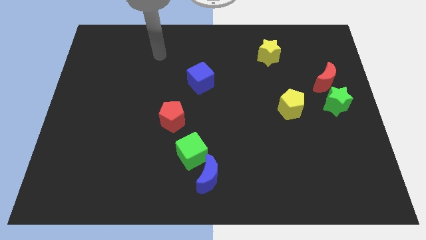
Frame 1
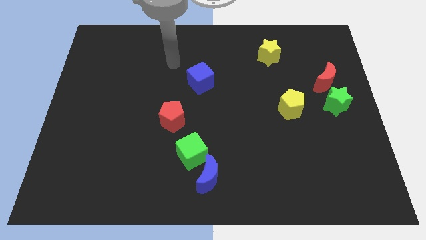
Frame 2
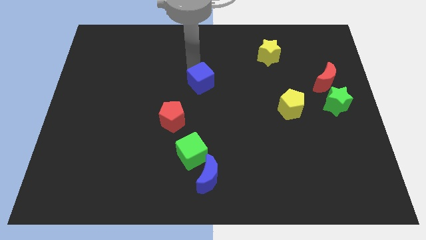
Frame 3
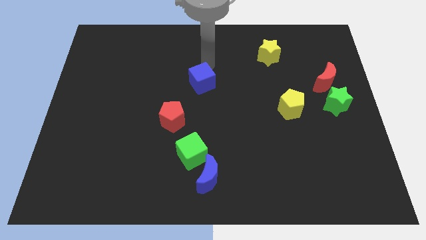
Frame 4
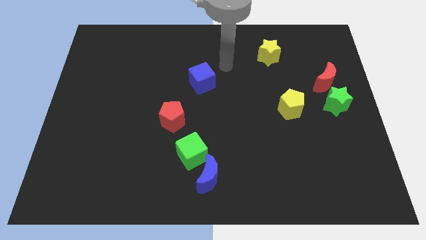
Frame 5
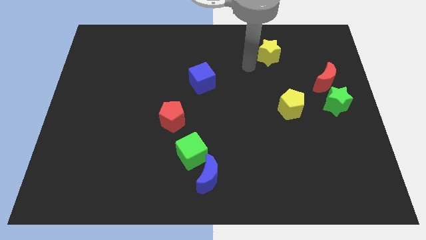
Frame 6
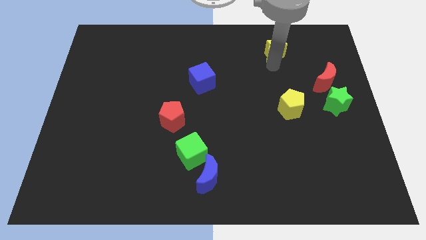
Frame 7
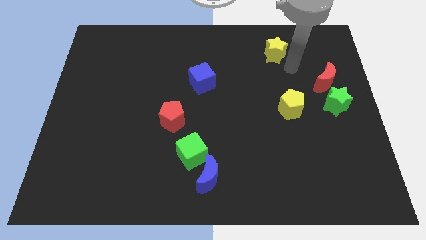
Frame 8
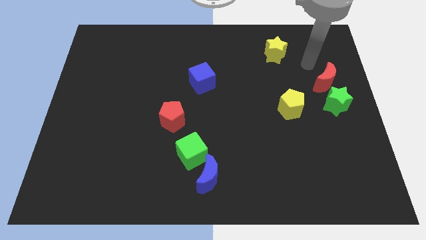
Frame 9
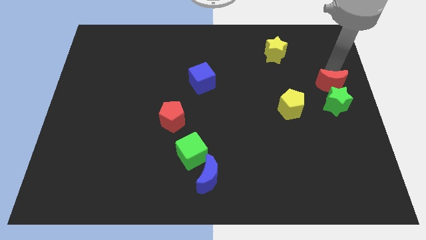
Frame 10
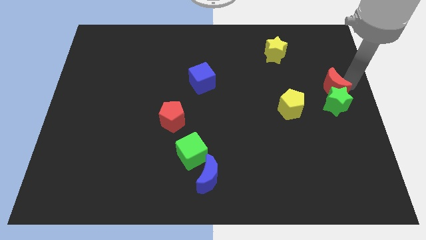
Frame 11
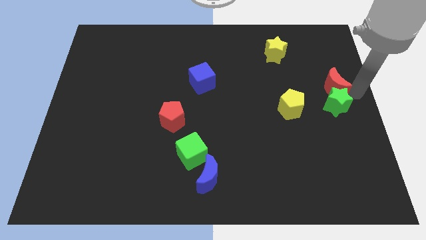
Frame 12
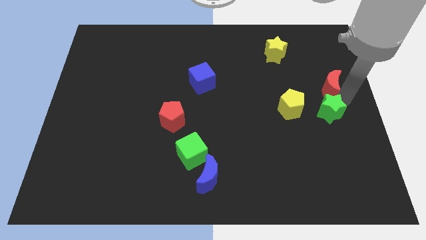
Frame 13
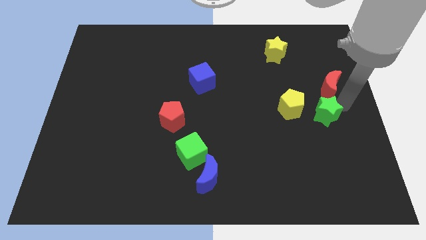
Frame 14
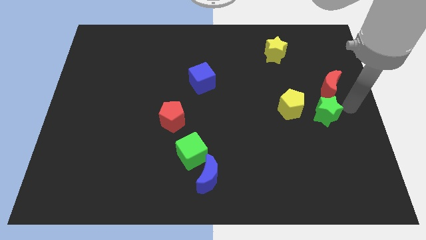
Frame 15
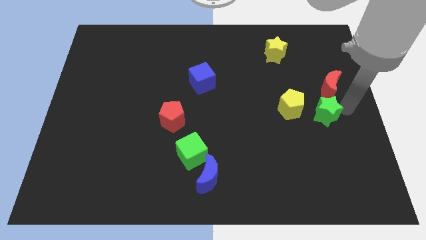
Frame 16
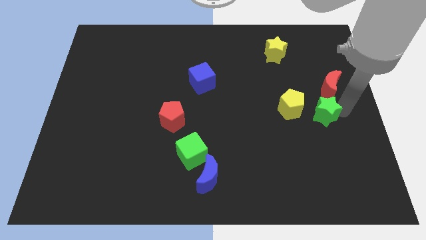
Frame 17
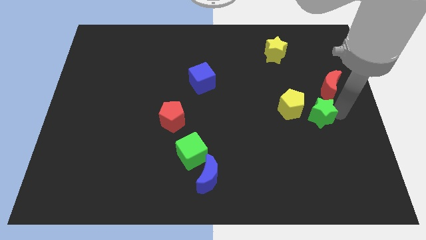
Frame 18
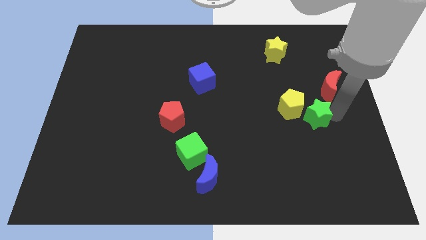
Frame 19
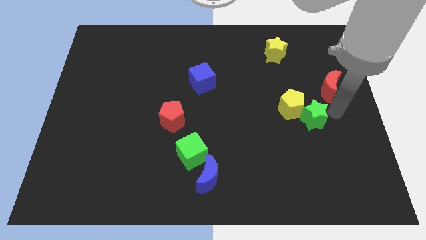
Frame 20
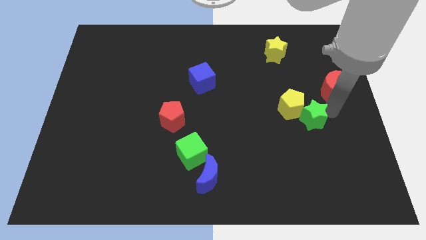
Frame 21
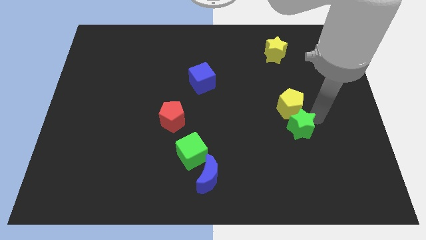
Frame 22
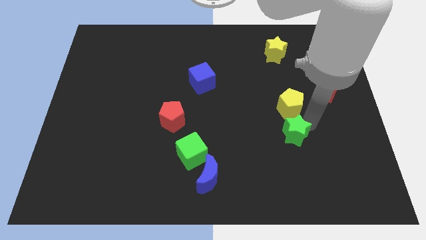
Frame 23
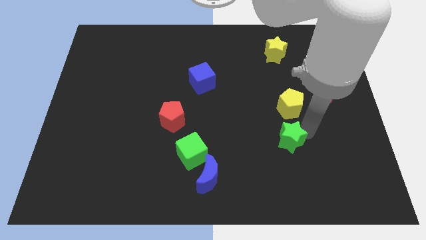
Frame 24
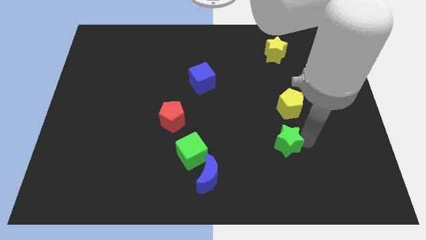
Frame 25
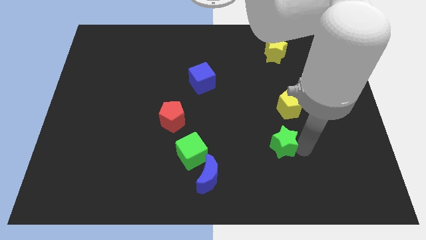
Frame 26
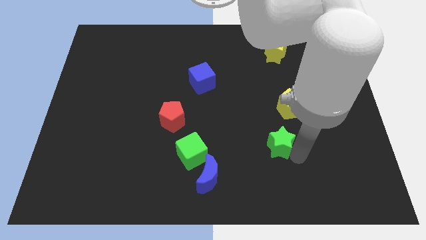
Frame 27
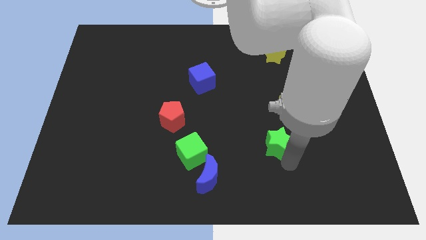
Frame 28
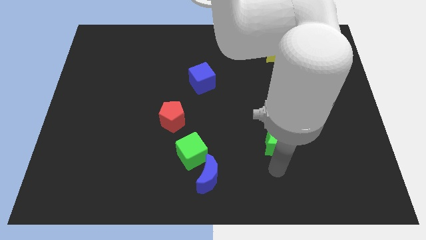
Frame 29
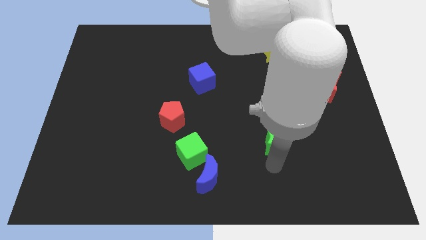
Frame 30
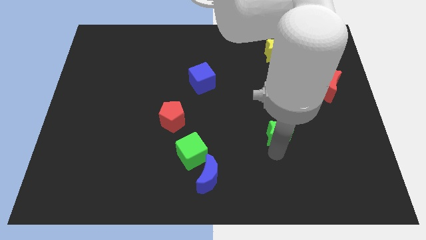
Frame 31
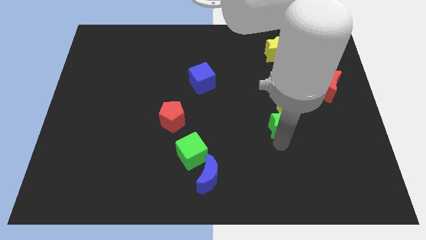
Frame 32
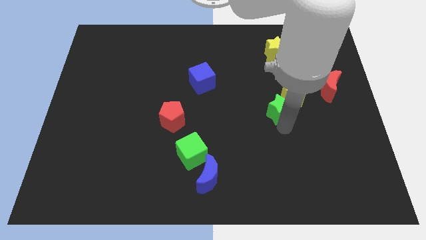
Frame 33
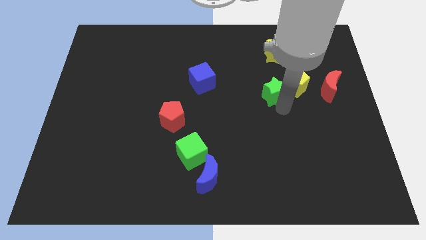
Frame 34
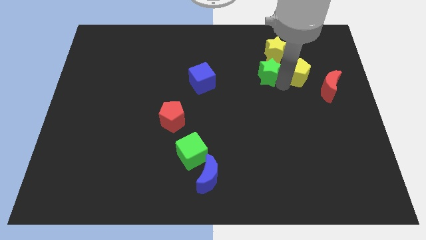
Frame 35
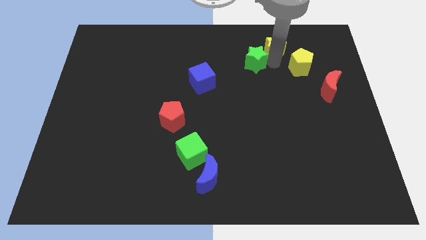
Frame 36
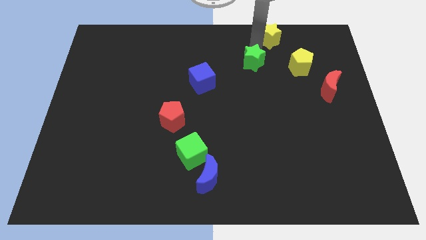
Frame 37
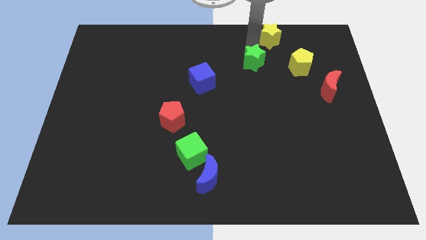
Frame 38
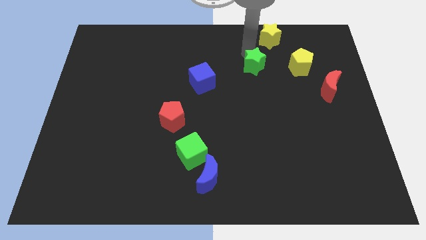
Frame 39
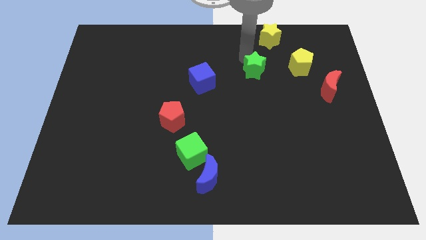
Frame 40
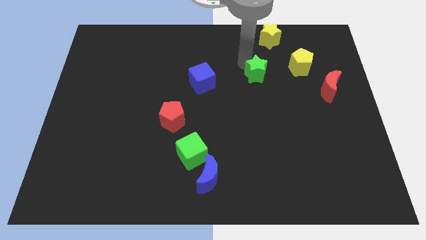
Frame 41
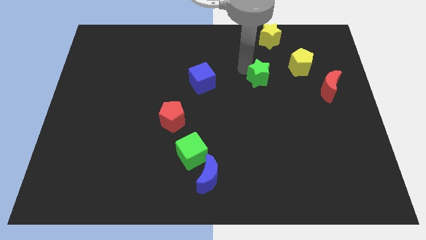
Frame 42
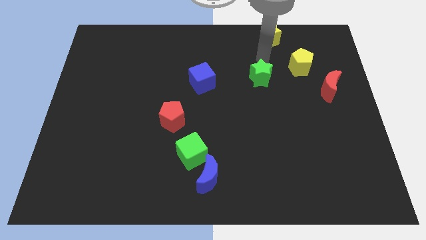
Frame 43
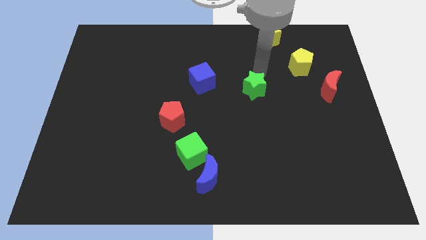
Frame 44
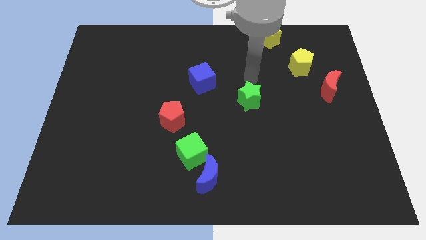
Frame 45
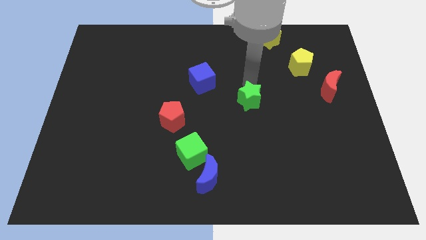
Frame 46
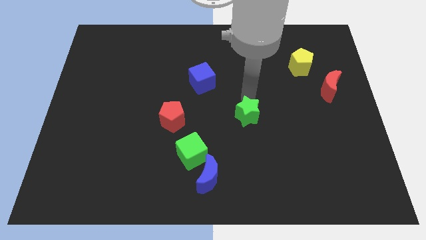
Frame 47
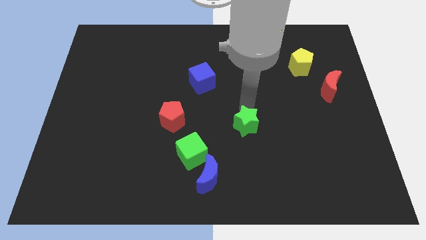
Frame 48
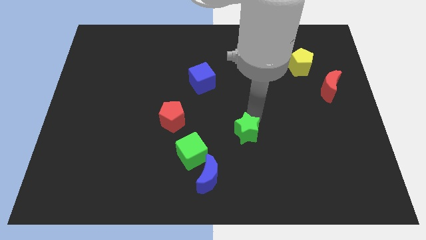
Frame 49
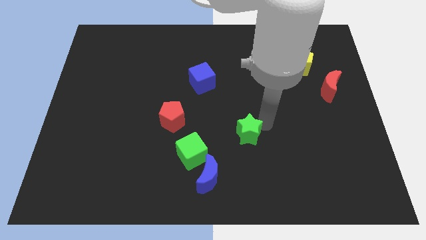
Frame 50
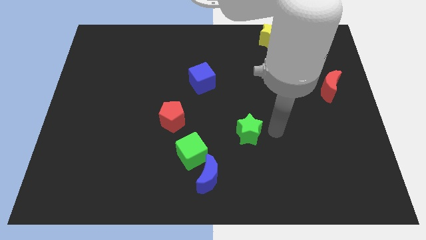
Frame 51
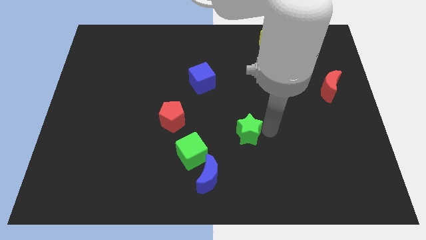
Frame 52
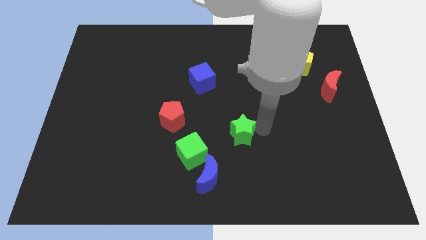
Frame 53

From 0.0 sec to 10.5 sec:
push the green star to the top right side of the green cube

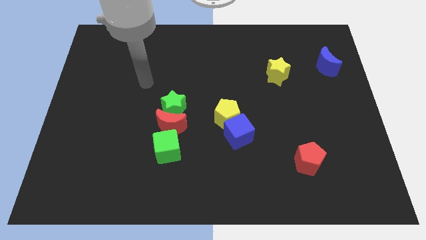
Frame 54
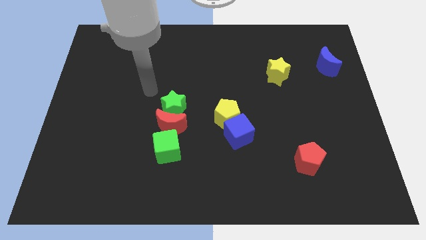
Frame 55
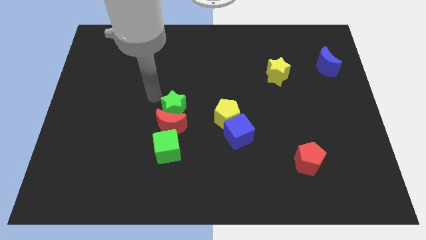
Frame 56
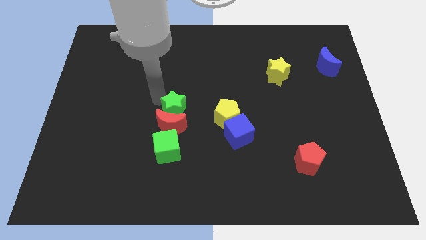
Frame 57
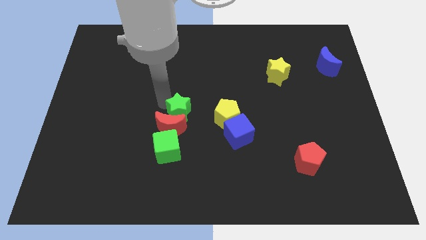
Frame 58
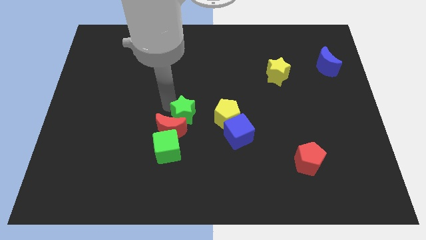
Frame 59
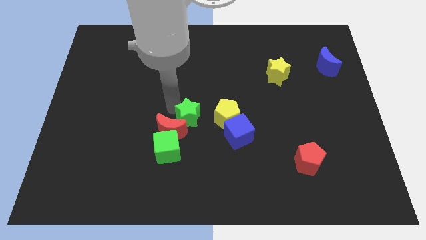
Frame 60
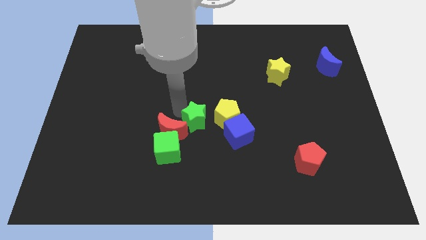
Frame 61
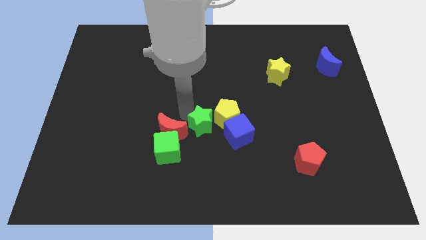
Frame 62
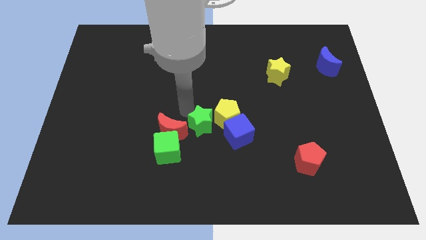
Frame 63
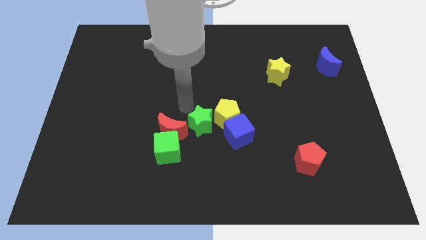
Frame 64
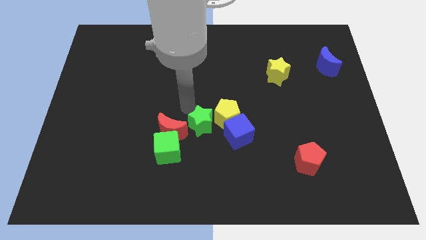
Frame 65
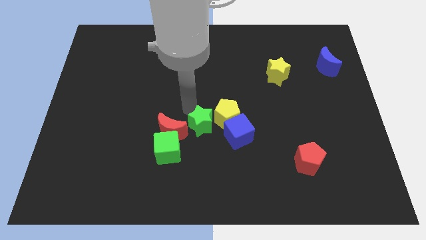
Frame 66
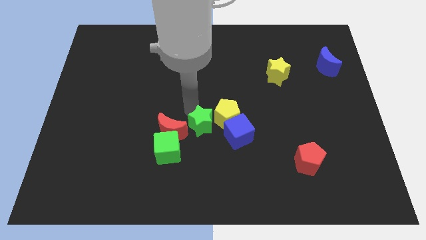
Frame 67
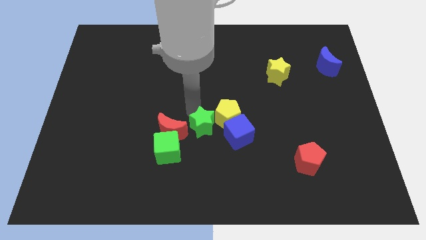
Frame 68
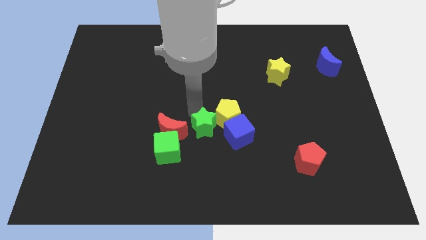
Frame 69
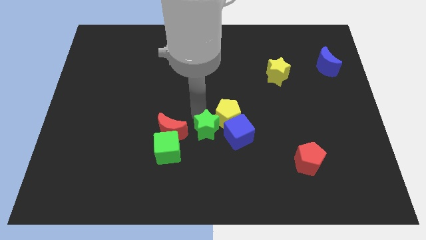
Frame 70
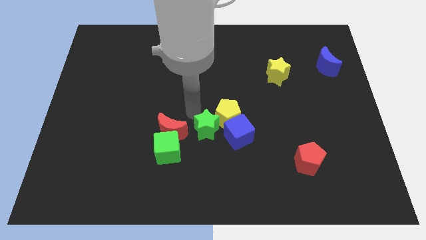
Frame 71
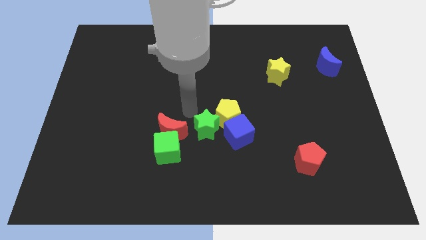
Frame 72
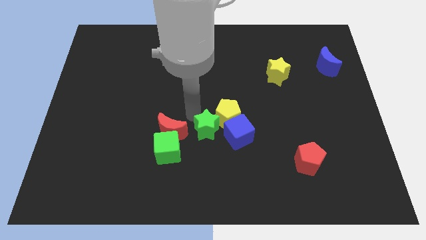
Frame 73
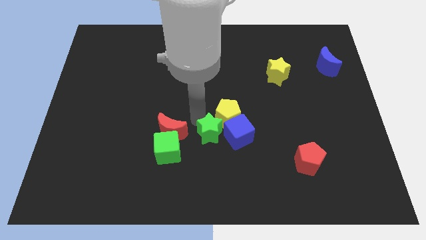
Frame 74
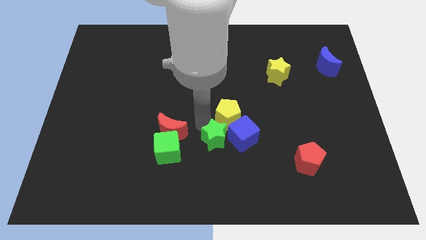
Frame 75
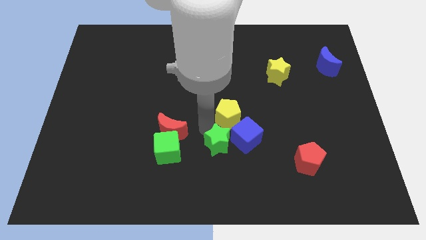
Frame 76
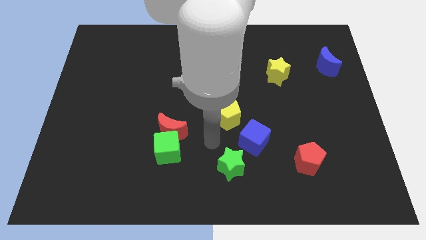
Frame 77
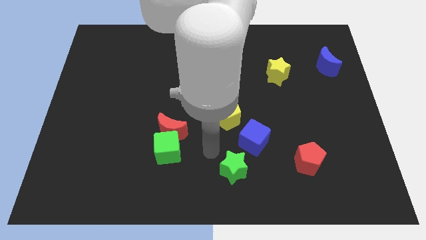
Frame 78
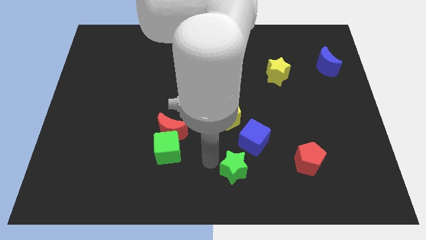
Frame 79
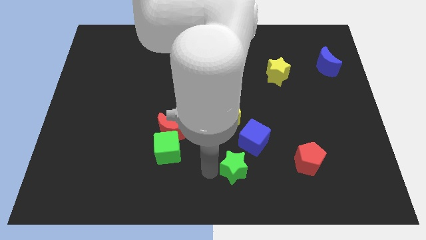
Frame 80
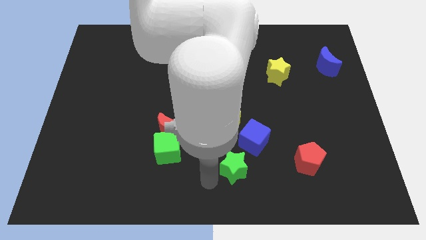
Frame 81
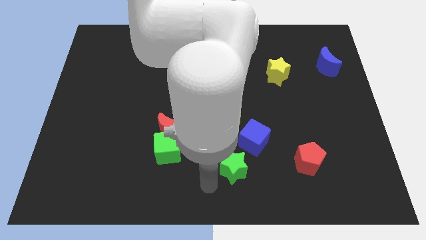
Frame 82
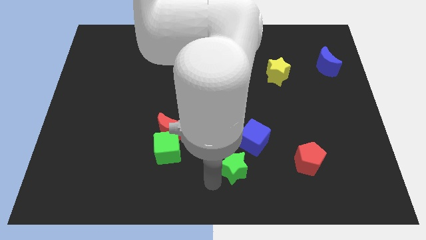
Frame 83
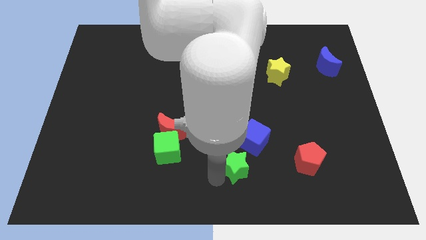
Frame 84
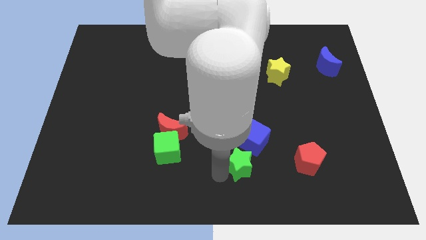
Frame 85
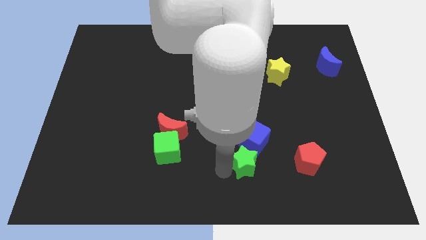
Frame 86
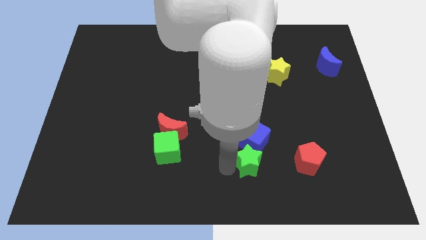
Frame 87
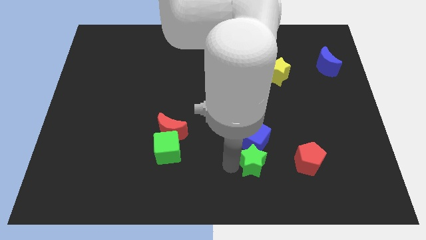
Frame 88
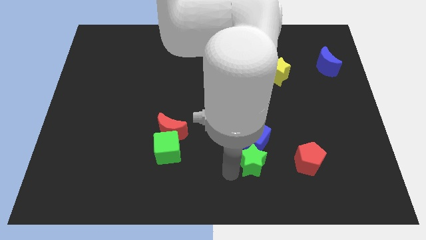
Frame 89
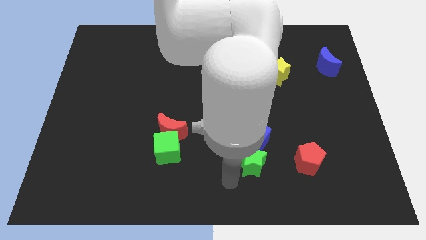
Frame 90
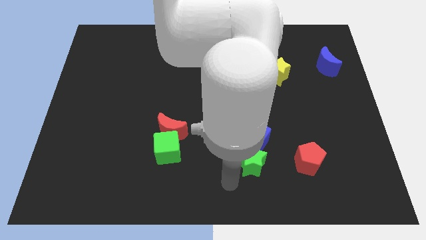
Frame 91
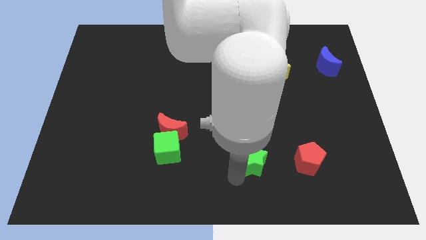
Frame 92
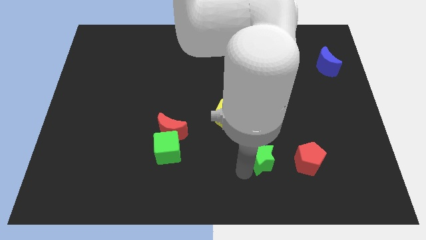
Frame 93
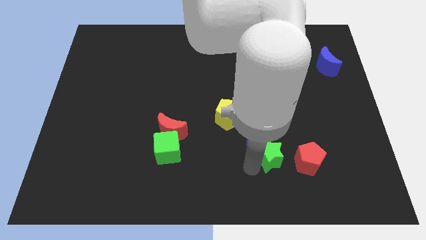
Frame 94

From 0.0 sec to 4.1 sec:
push the green star diagonally up and to the left of the red pentagon
